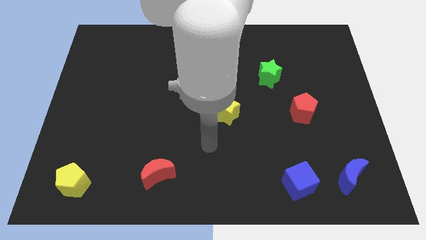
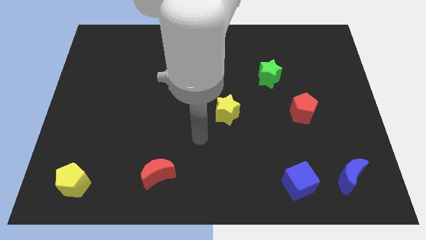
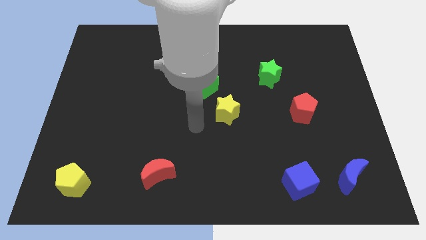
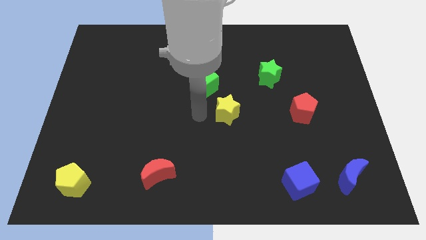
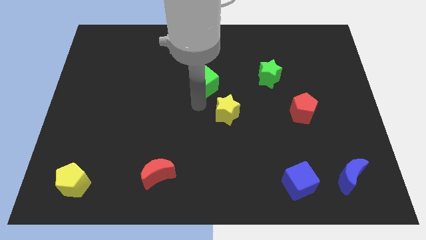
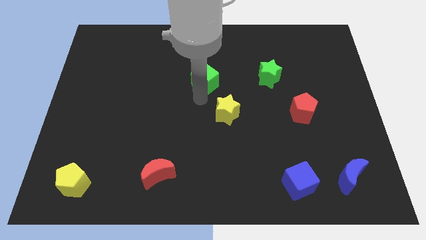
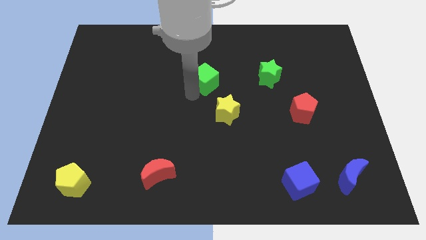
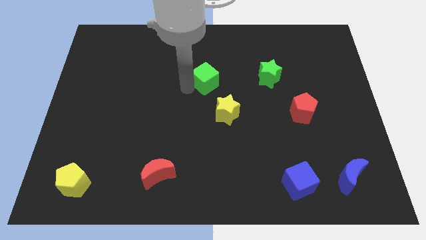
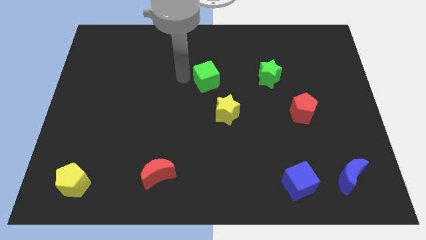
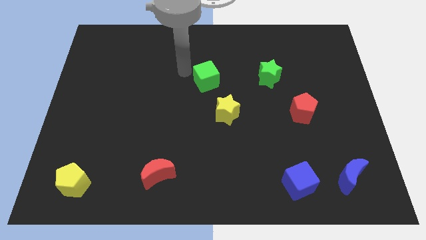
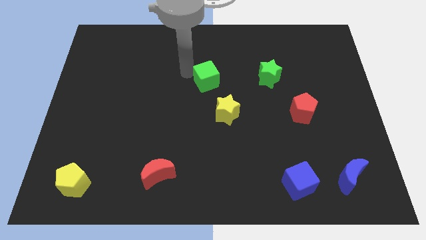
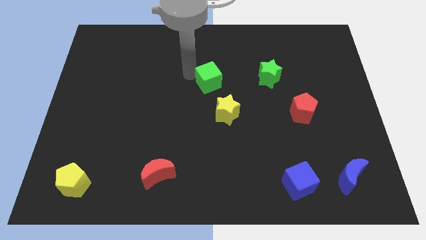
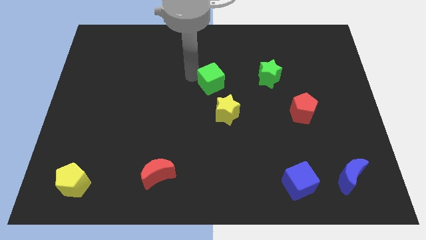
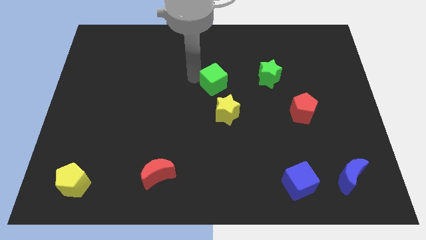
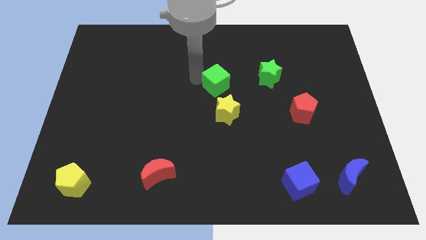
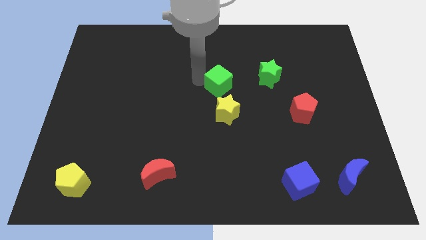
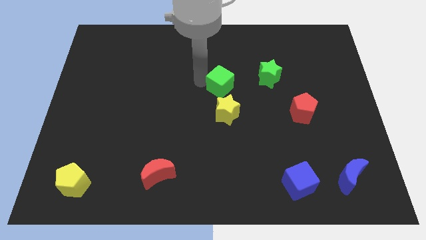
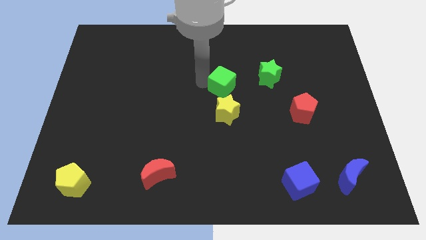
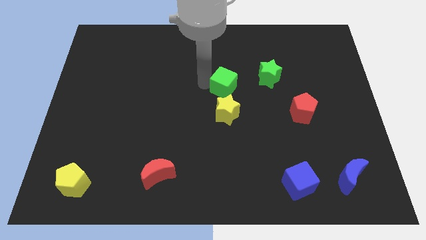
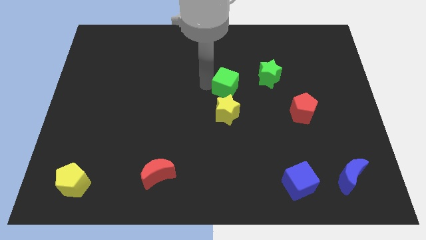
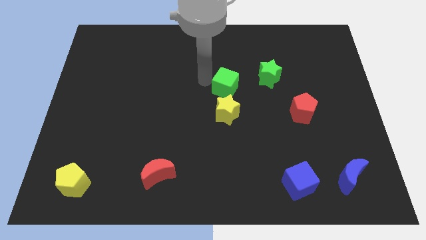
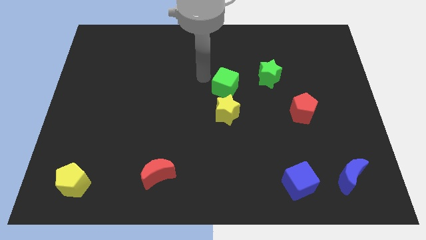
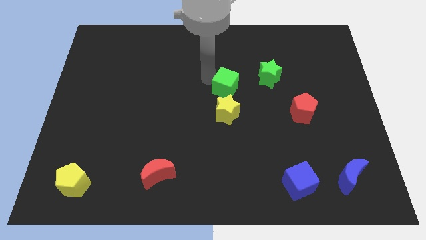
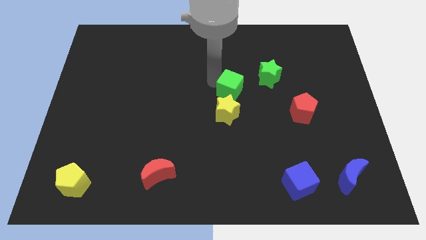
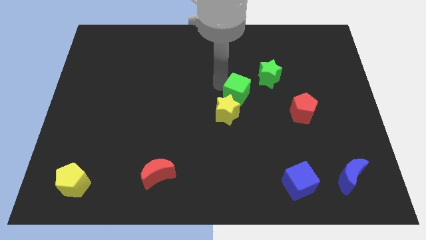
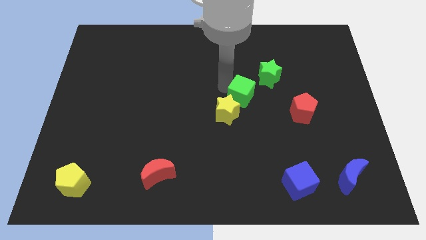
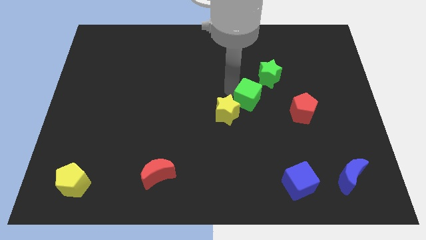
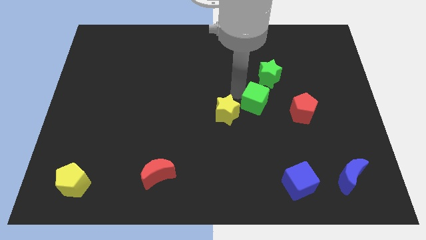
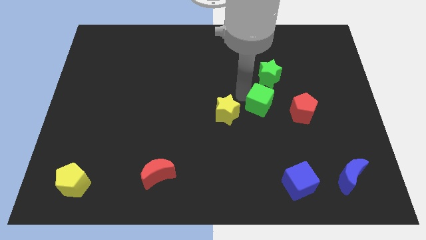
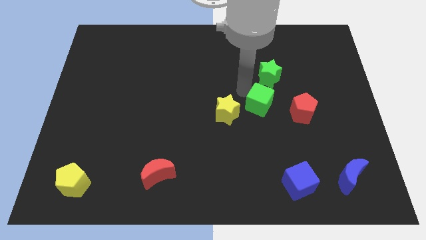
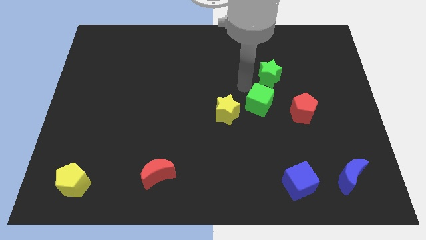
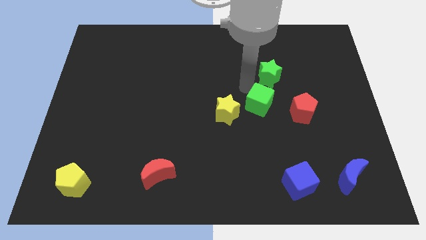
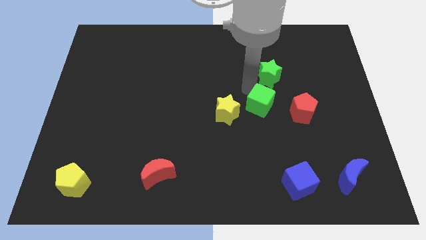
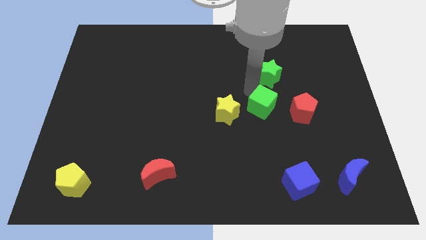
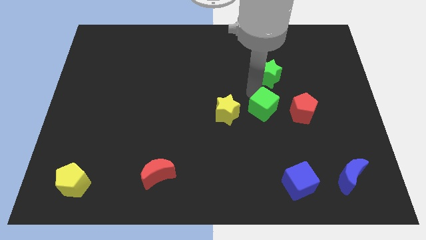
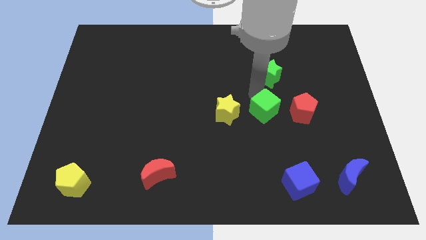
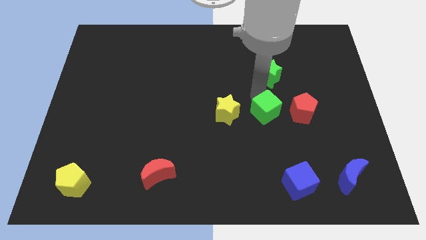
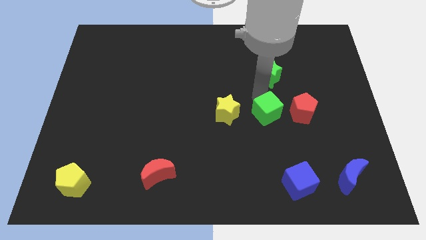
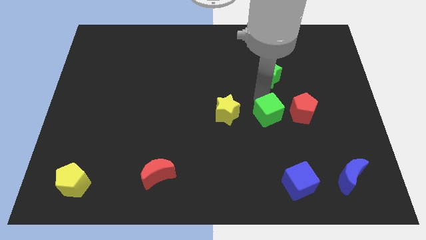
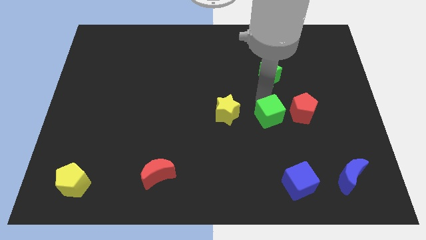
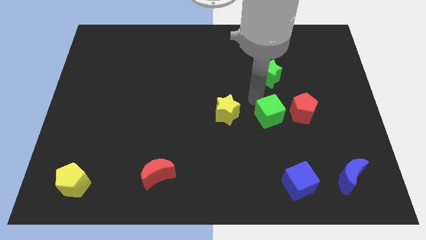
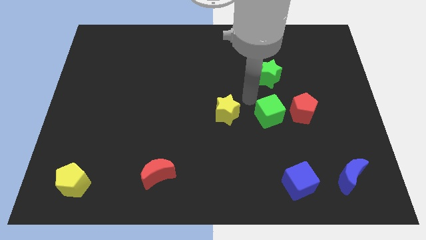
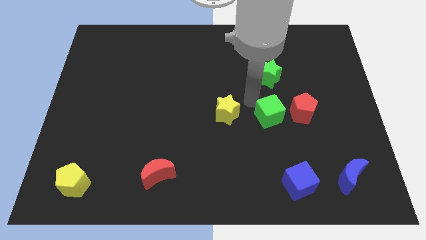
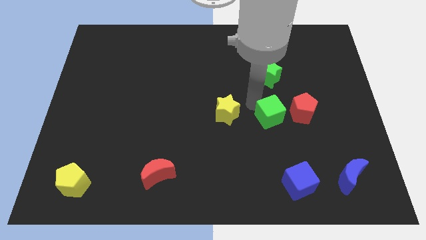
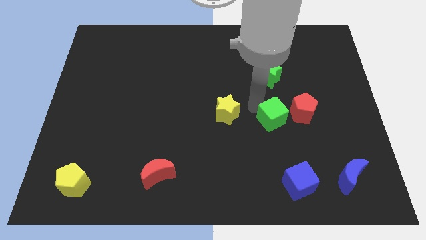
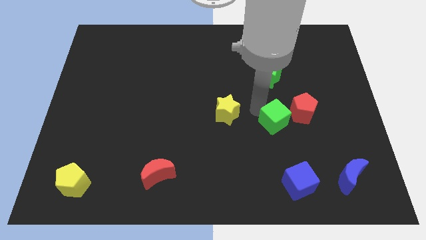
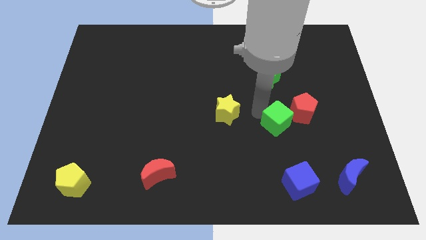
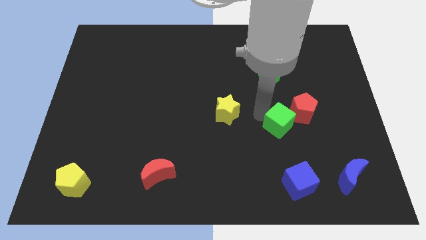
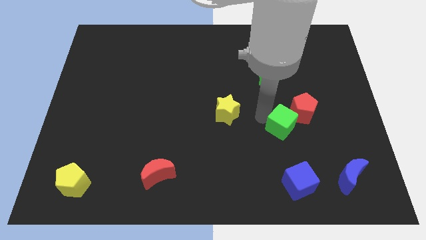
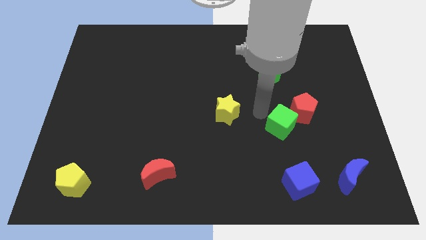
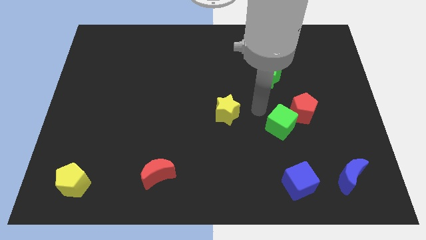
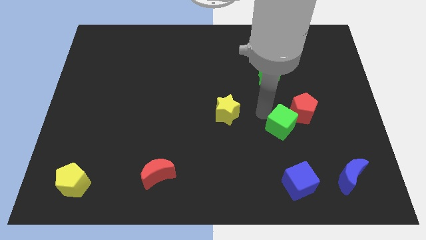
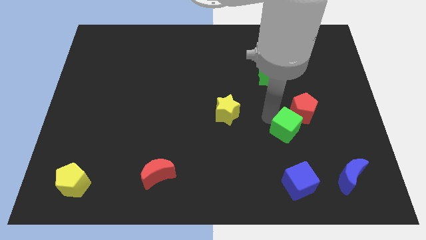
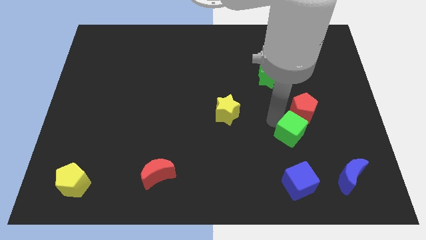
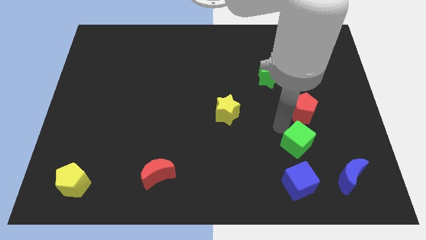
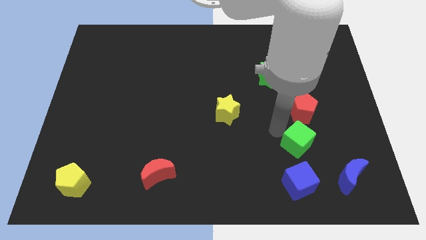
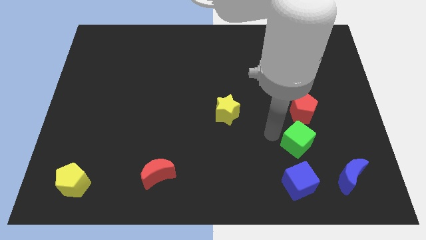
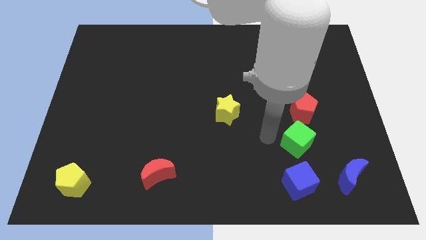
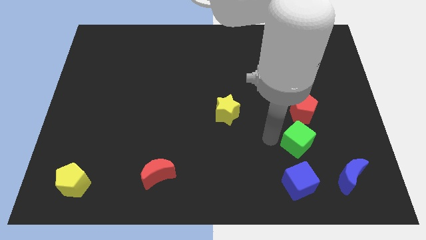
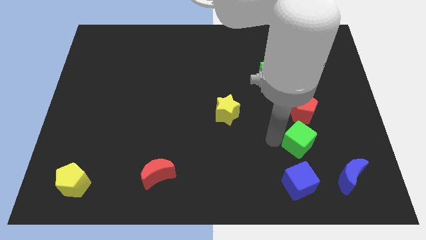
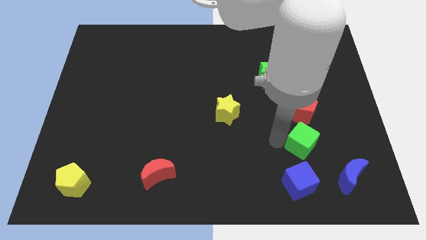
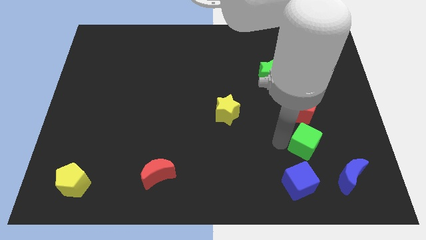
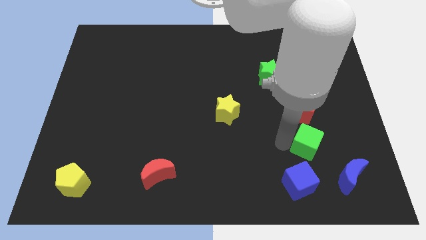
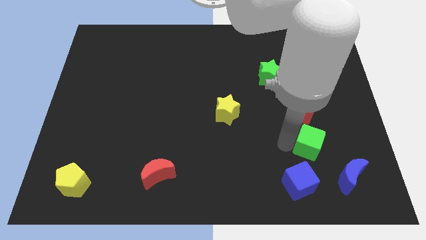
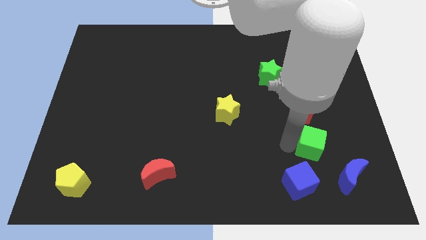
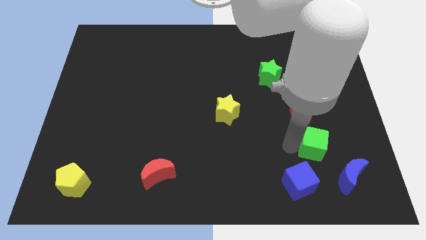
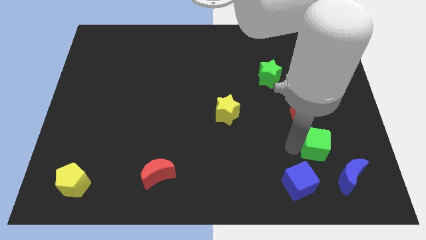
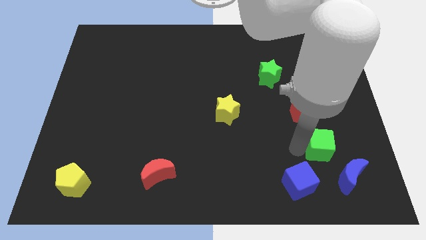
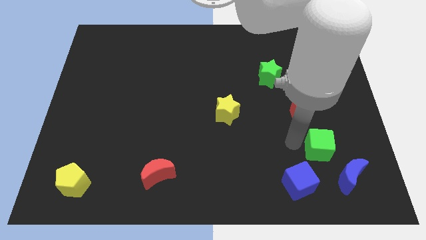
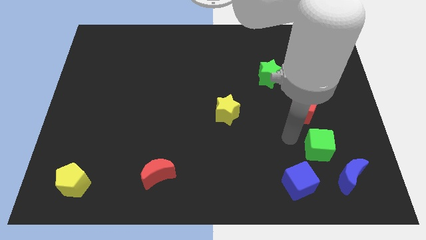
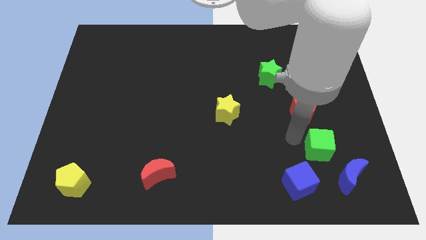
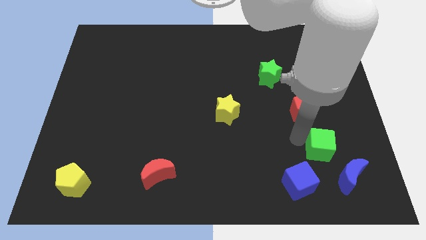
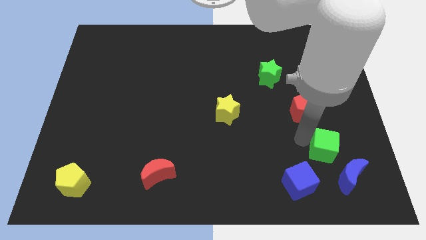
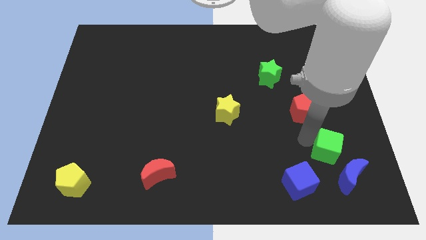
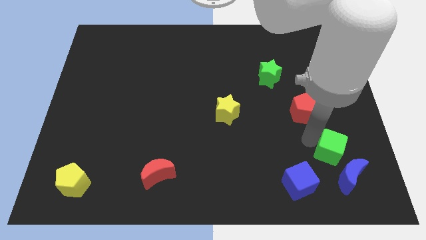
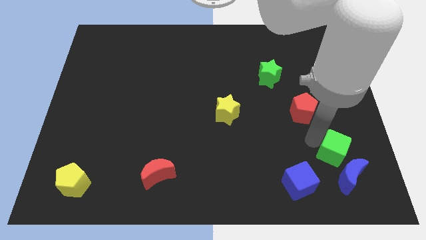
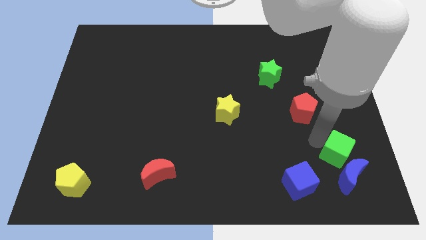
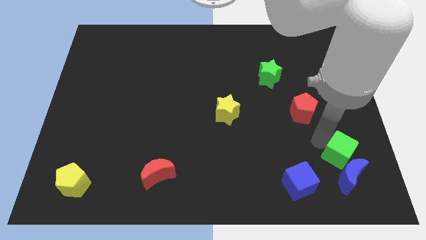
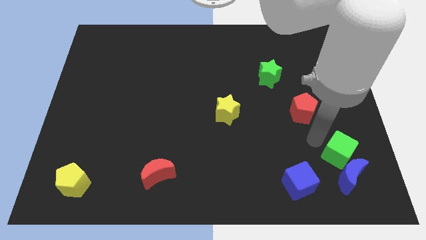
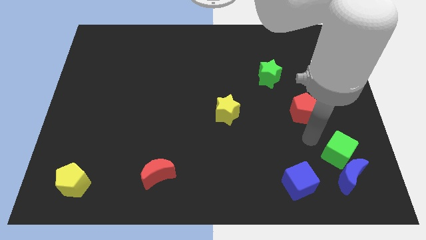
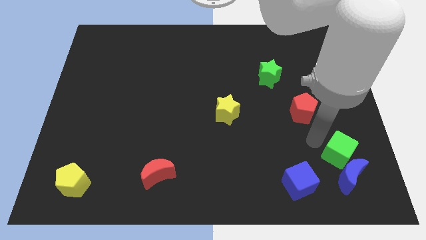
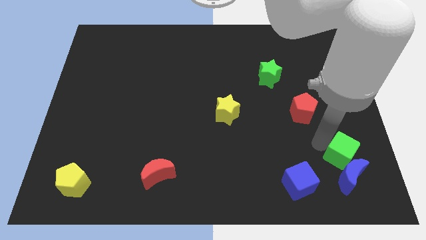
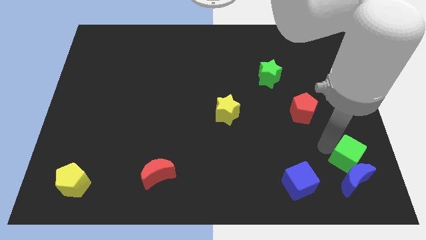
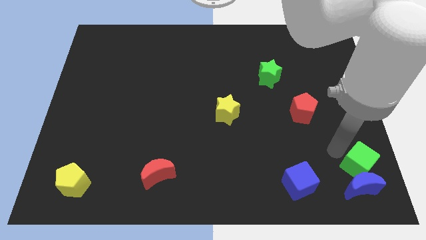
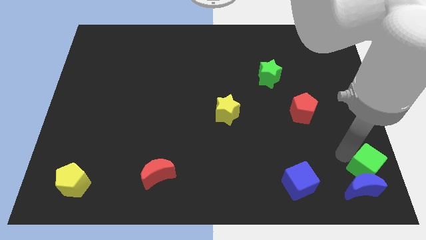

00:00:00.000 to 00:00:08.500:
slide the green cube to the bottom right
